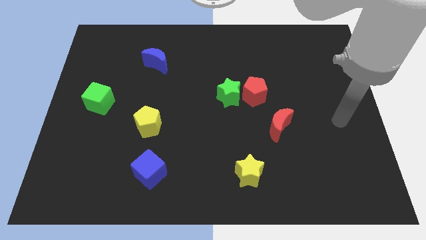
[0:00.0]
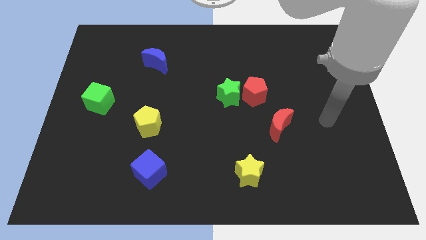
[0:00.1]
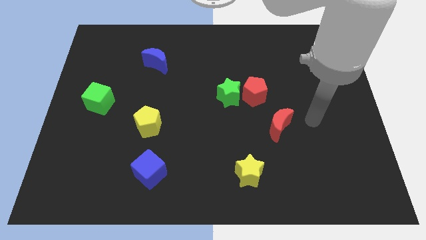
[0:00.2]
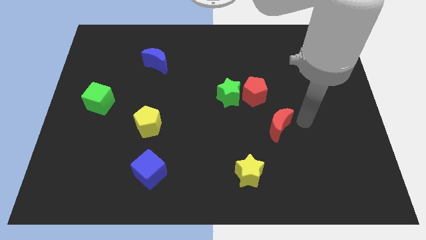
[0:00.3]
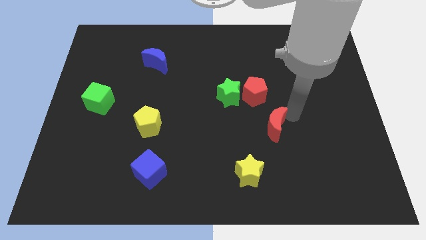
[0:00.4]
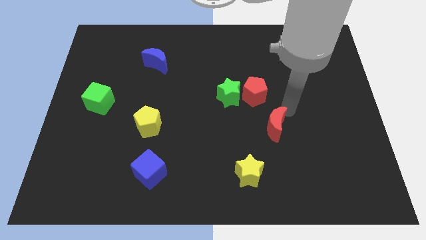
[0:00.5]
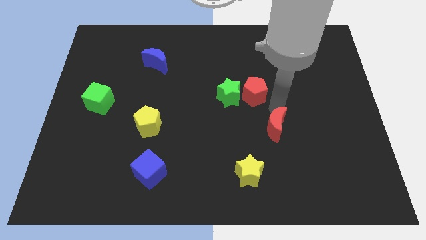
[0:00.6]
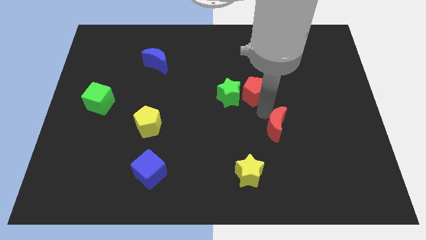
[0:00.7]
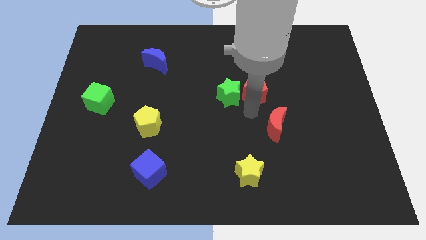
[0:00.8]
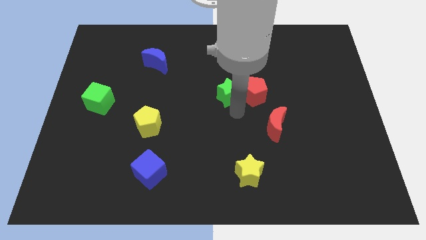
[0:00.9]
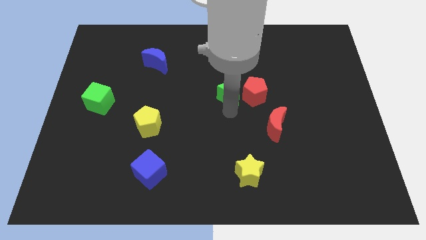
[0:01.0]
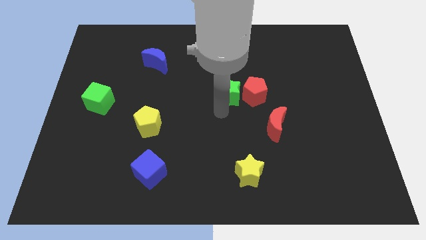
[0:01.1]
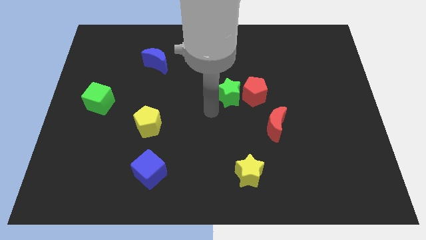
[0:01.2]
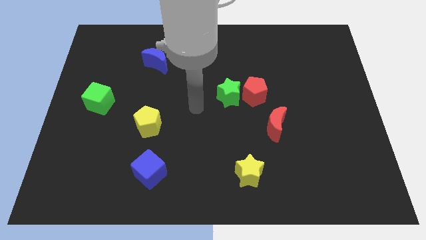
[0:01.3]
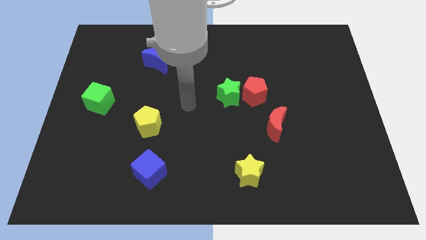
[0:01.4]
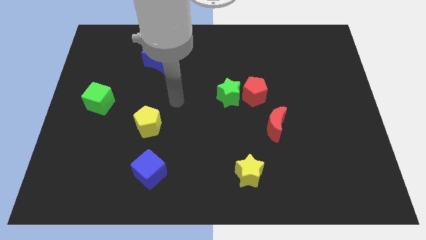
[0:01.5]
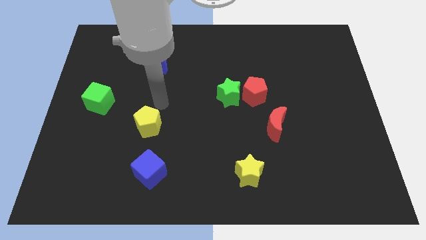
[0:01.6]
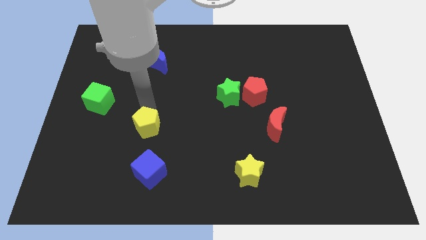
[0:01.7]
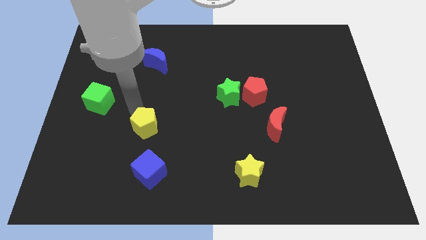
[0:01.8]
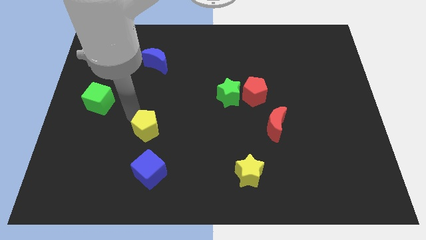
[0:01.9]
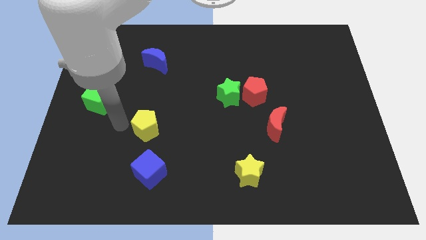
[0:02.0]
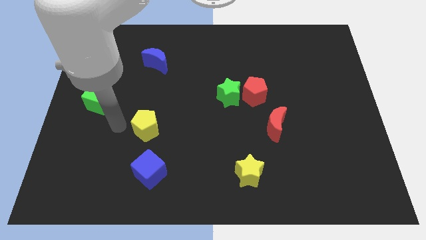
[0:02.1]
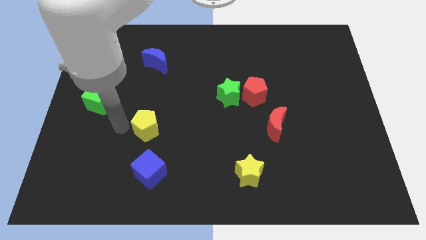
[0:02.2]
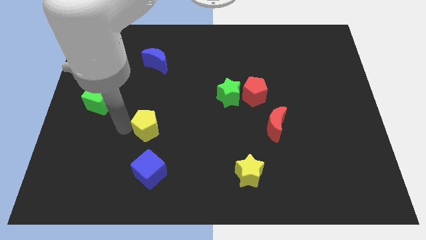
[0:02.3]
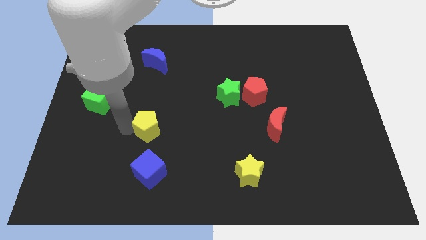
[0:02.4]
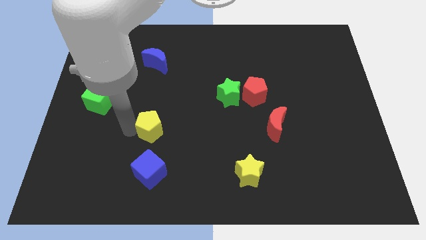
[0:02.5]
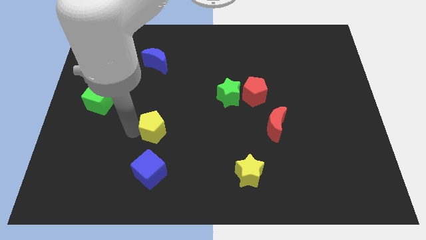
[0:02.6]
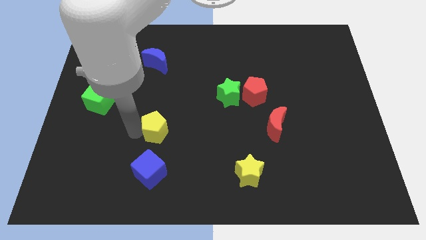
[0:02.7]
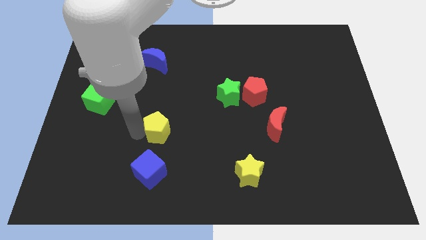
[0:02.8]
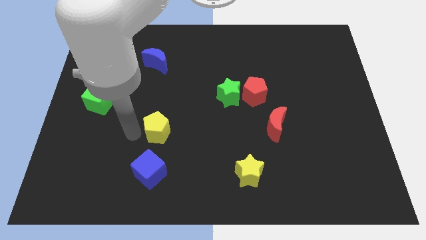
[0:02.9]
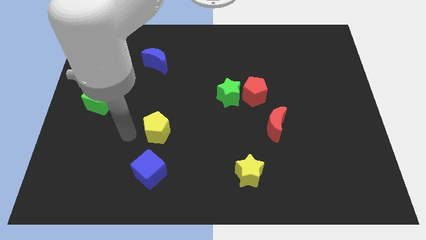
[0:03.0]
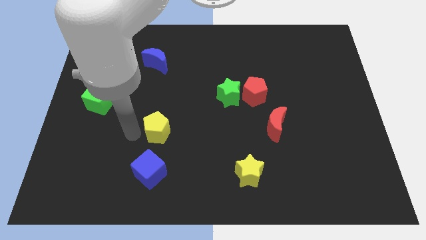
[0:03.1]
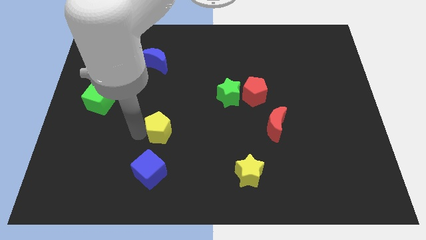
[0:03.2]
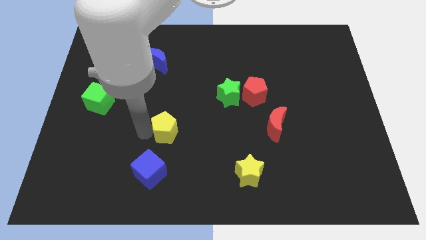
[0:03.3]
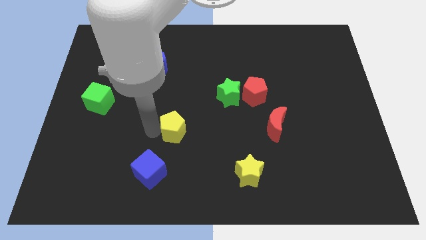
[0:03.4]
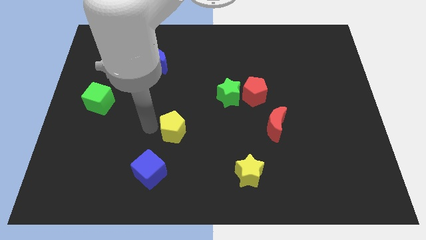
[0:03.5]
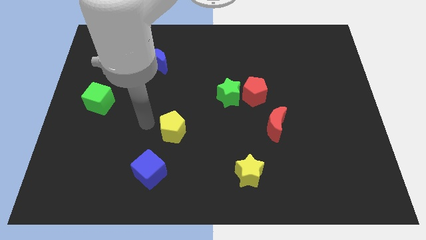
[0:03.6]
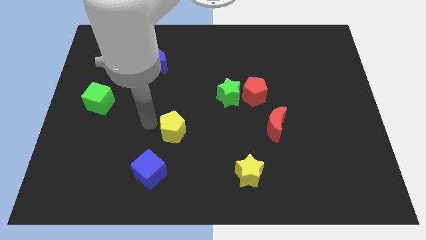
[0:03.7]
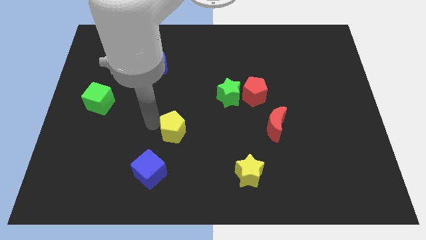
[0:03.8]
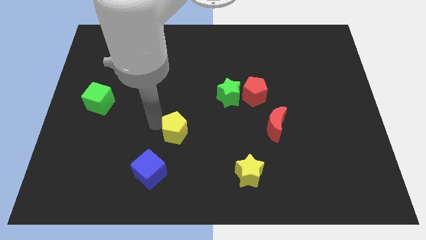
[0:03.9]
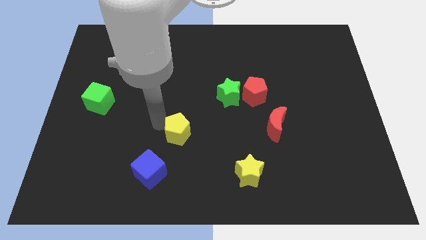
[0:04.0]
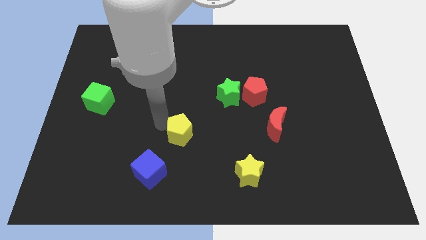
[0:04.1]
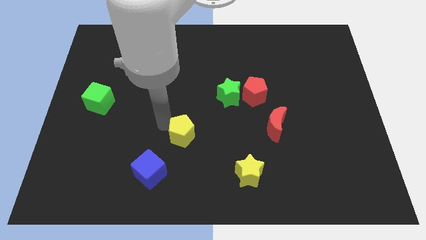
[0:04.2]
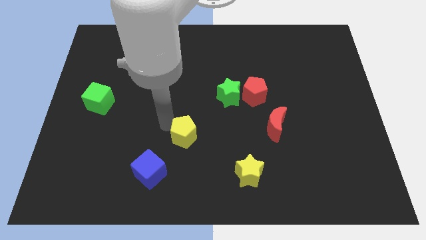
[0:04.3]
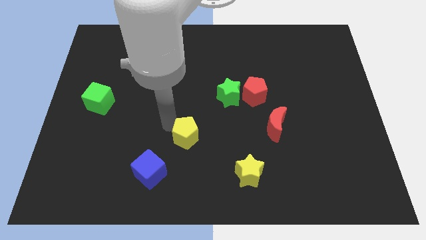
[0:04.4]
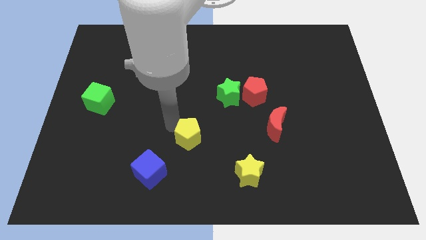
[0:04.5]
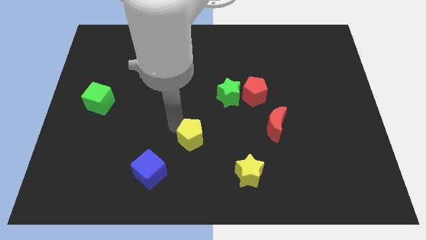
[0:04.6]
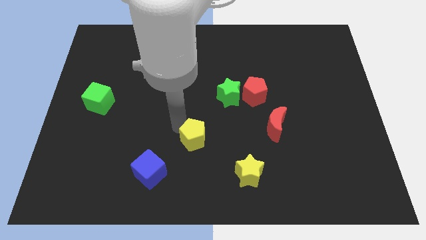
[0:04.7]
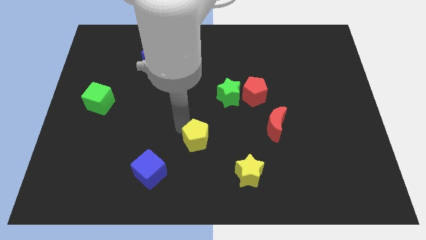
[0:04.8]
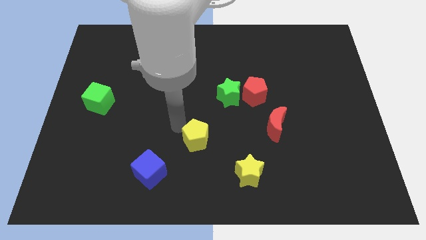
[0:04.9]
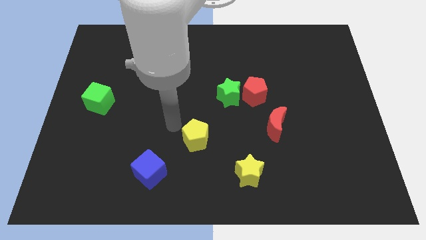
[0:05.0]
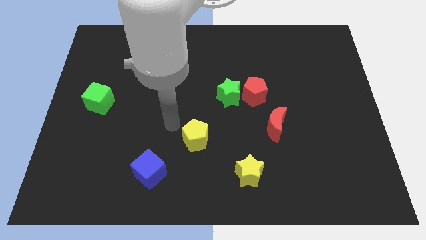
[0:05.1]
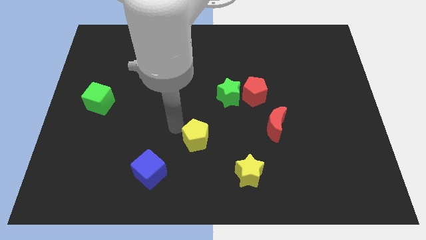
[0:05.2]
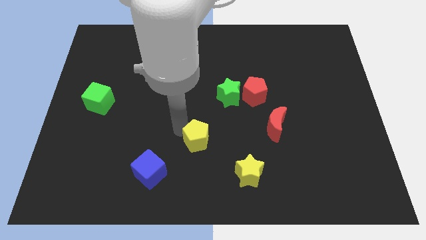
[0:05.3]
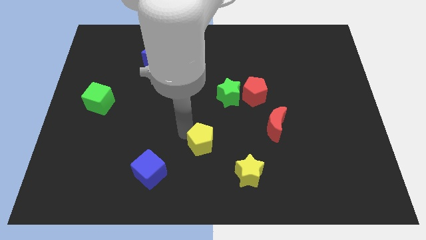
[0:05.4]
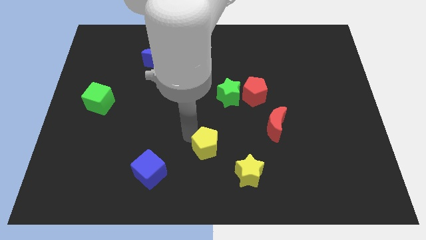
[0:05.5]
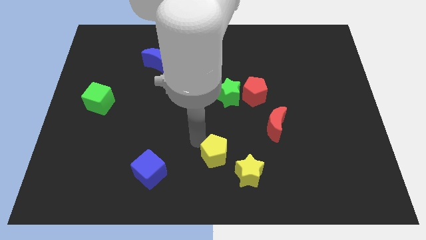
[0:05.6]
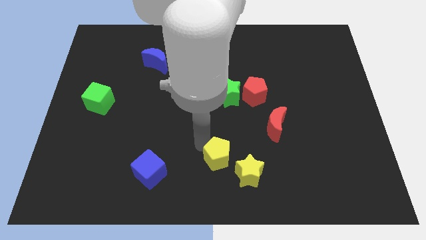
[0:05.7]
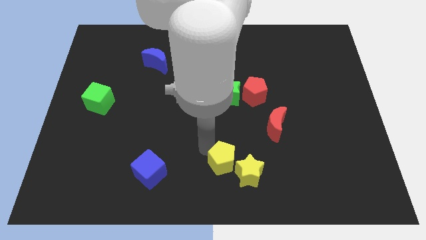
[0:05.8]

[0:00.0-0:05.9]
move the yellow pentagon to the yellow star

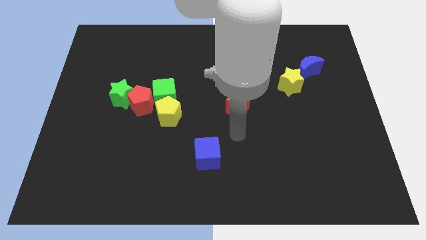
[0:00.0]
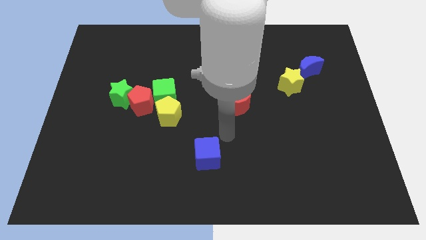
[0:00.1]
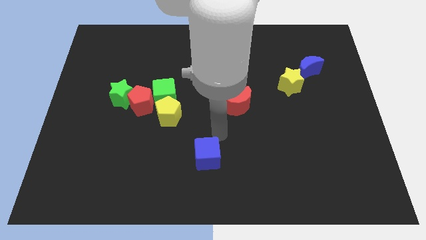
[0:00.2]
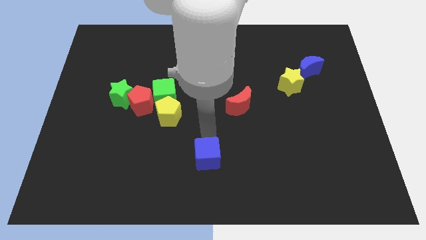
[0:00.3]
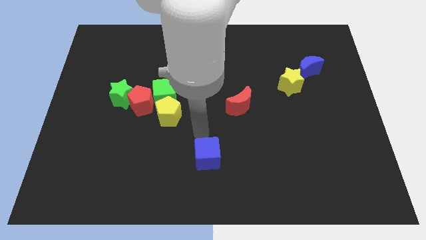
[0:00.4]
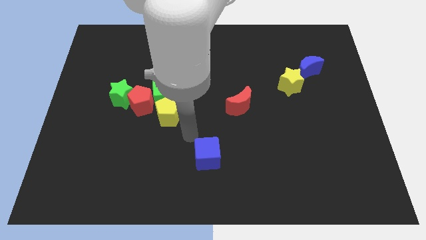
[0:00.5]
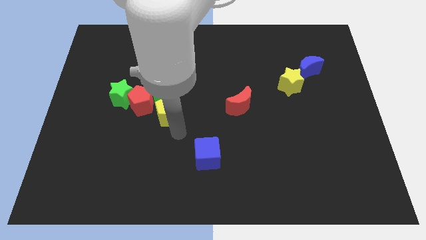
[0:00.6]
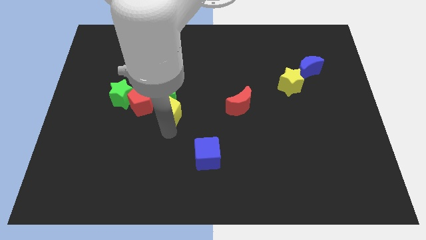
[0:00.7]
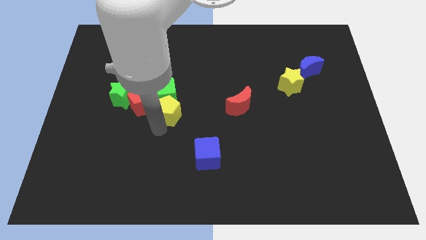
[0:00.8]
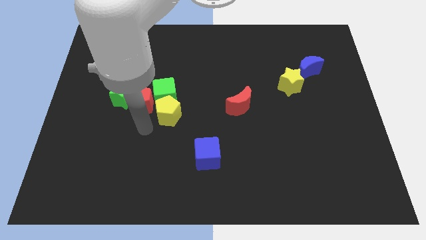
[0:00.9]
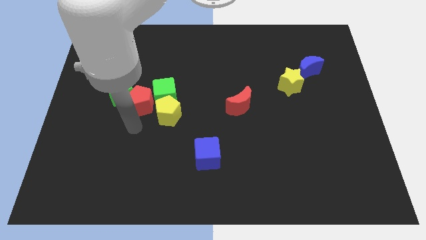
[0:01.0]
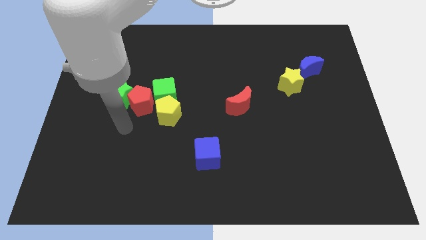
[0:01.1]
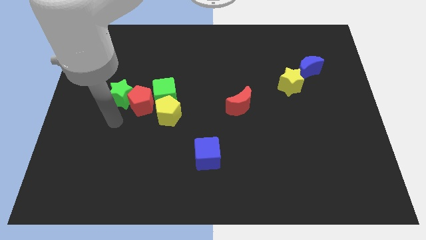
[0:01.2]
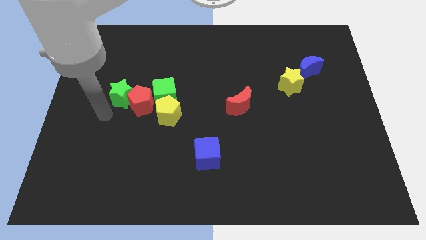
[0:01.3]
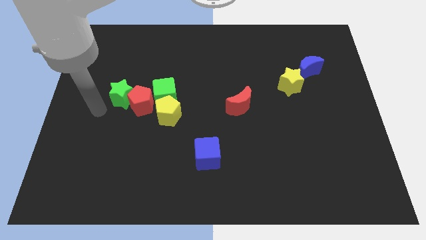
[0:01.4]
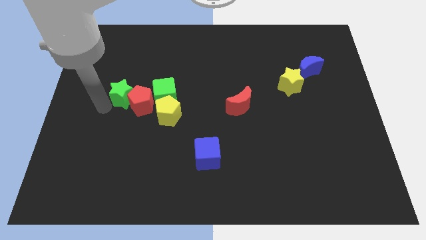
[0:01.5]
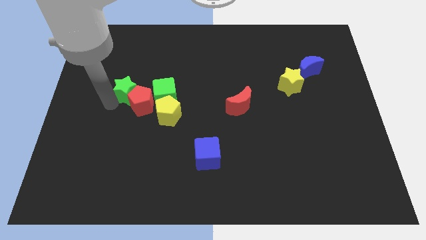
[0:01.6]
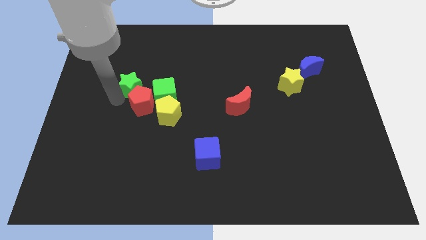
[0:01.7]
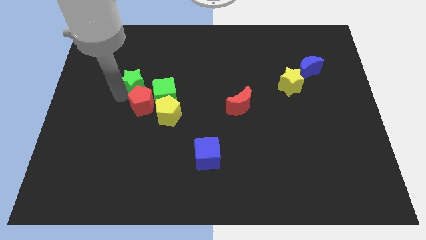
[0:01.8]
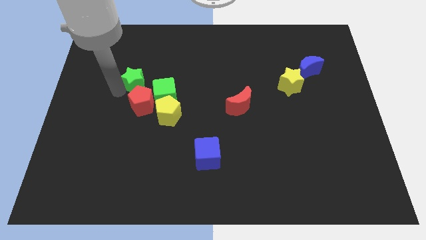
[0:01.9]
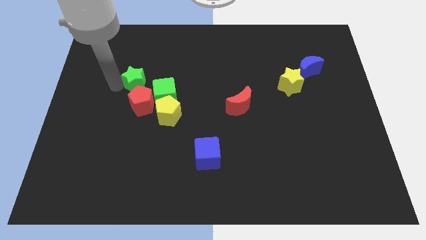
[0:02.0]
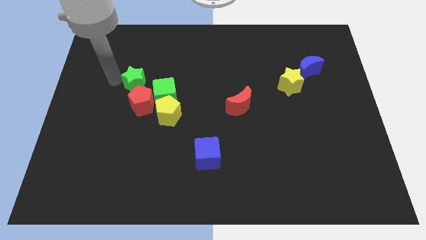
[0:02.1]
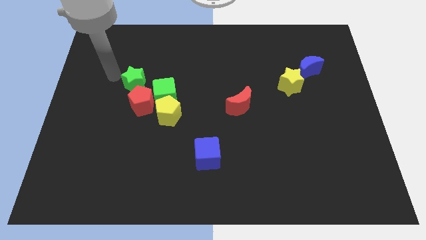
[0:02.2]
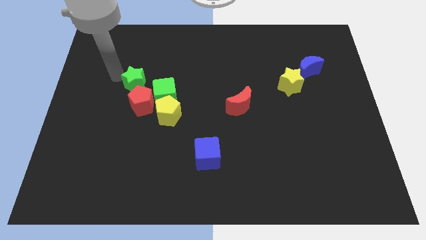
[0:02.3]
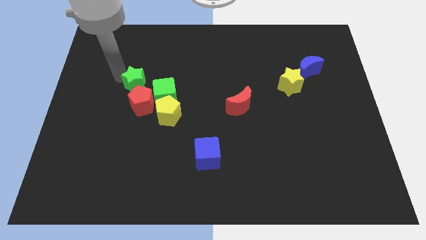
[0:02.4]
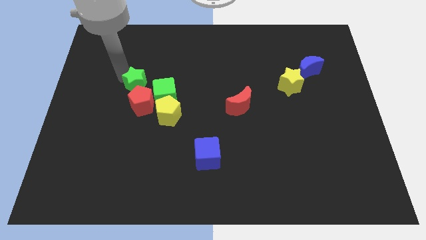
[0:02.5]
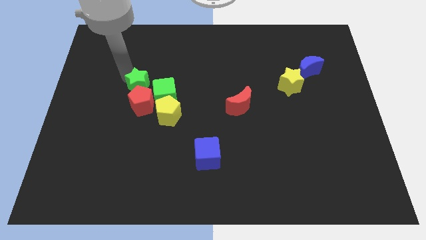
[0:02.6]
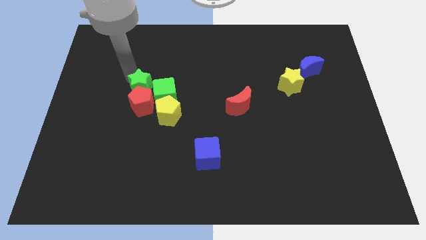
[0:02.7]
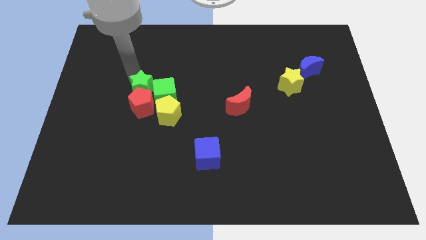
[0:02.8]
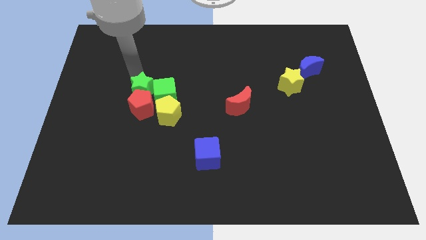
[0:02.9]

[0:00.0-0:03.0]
move the green star next to the green cube
